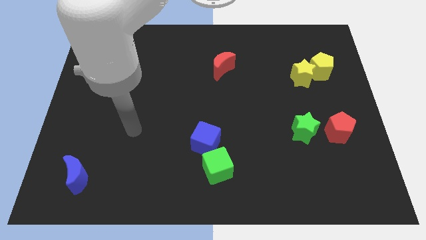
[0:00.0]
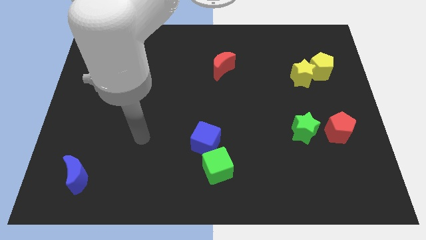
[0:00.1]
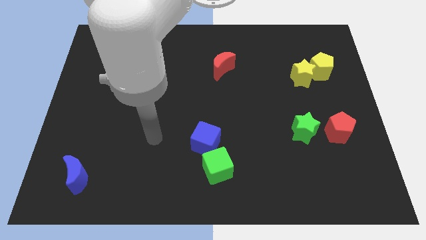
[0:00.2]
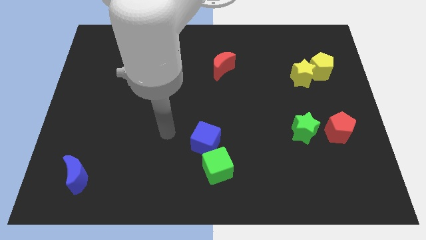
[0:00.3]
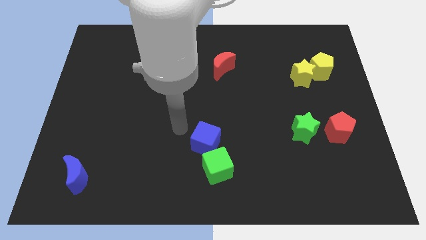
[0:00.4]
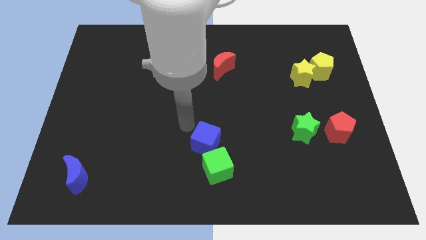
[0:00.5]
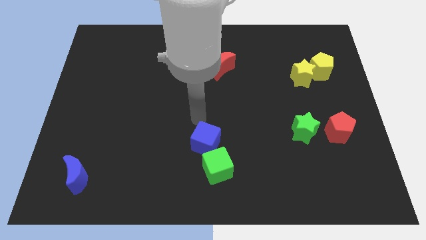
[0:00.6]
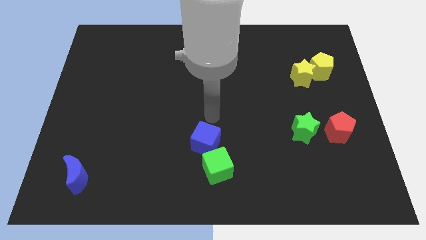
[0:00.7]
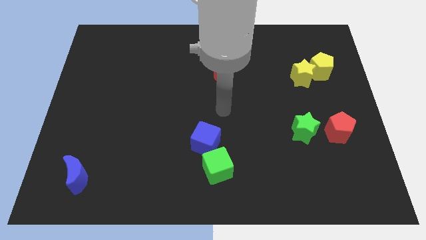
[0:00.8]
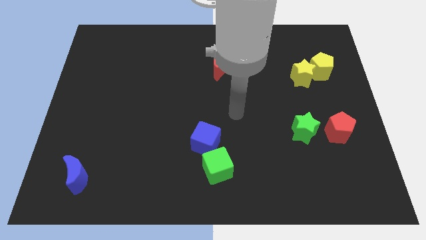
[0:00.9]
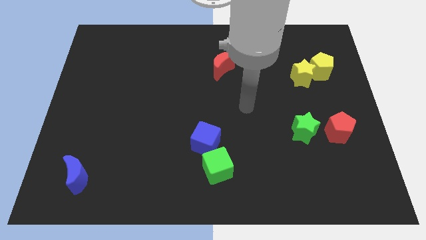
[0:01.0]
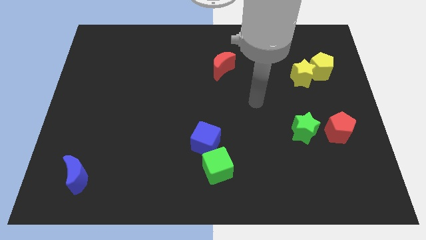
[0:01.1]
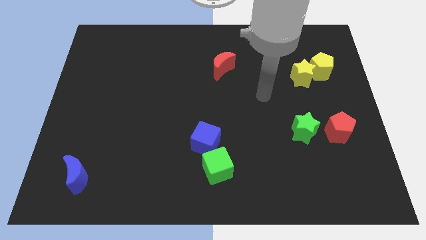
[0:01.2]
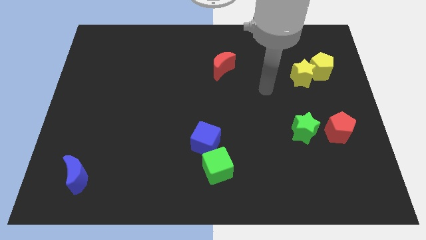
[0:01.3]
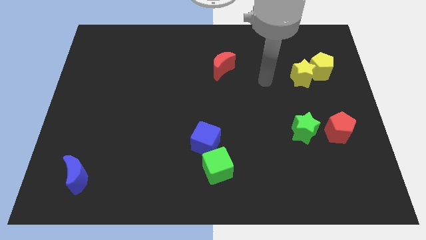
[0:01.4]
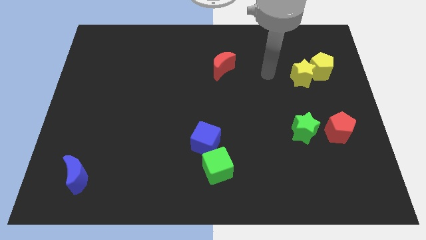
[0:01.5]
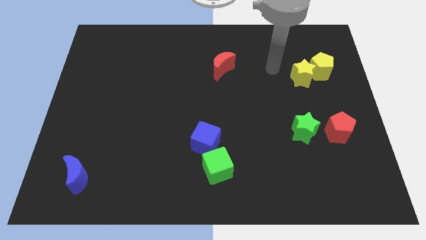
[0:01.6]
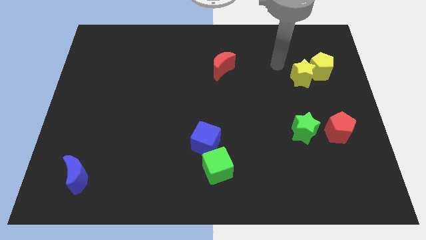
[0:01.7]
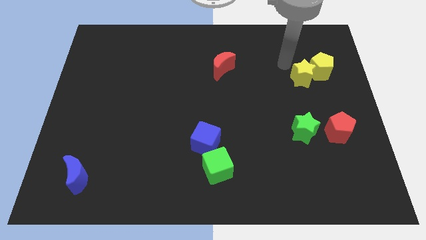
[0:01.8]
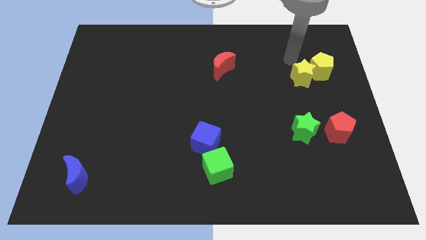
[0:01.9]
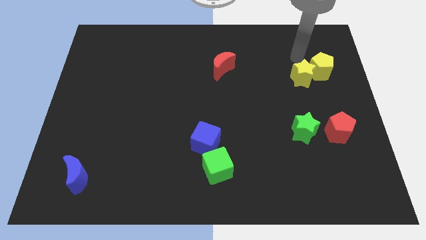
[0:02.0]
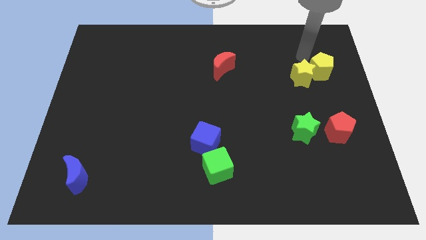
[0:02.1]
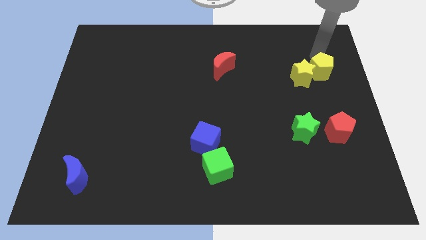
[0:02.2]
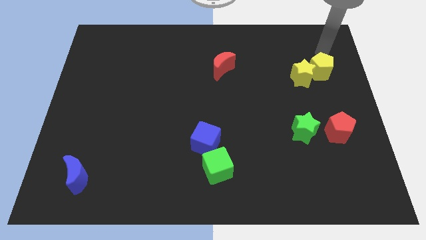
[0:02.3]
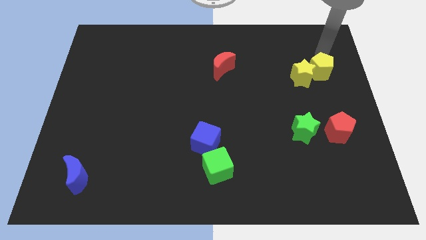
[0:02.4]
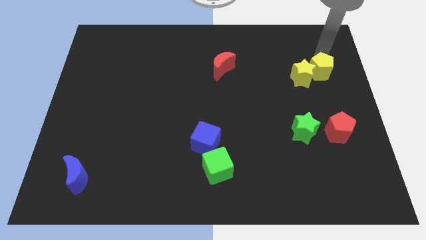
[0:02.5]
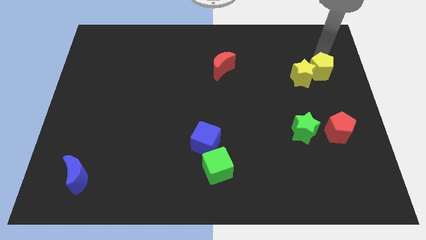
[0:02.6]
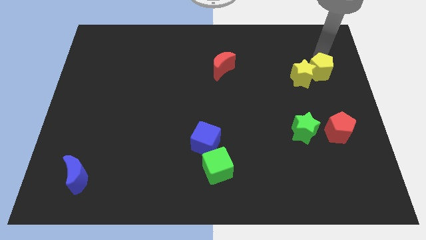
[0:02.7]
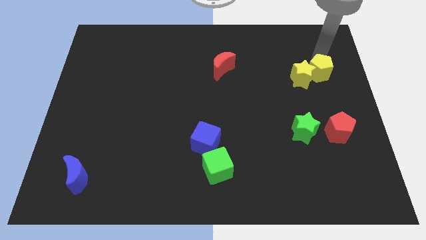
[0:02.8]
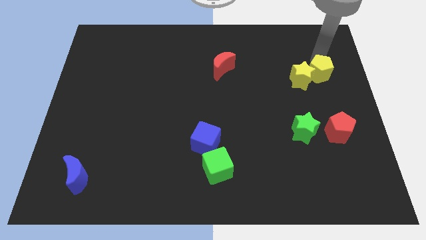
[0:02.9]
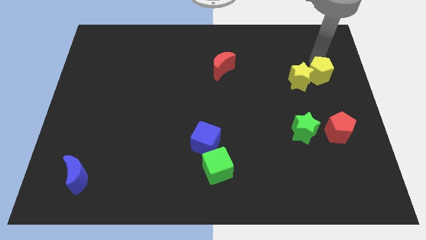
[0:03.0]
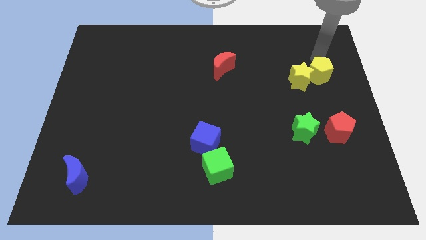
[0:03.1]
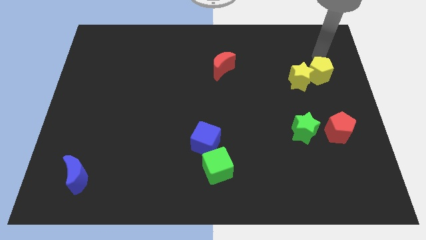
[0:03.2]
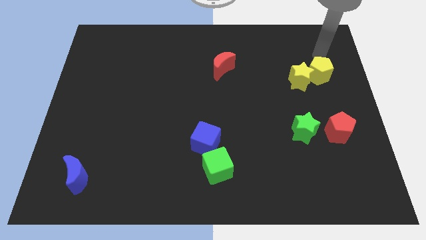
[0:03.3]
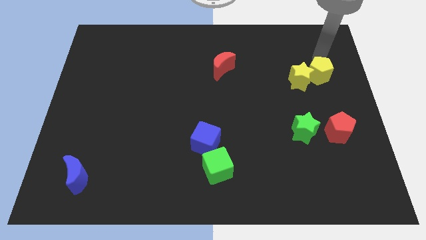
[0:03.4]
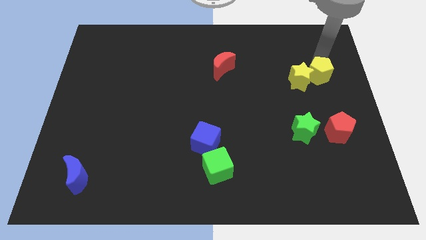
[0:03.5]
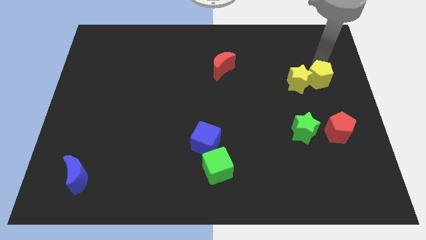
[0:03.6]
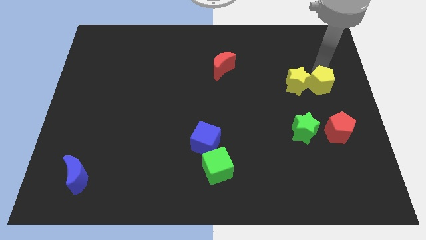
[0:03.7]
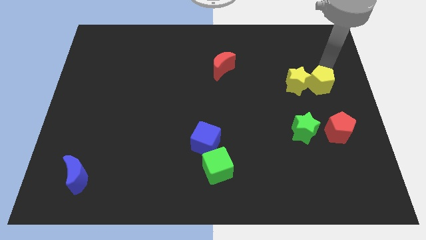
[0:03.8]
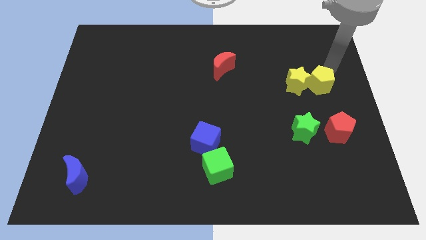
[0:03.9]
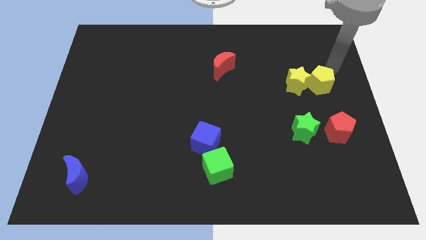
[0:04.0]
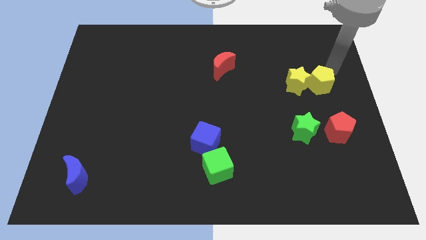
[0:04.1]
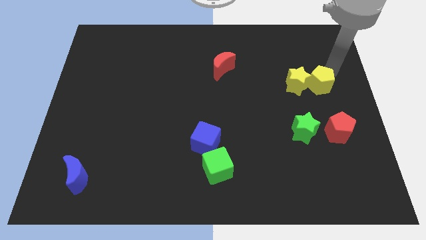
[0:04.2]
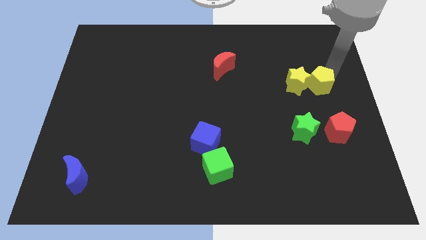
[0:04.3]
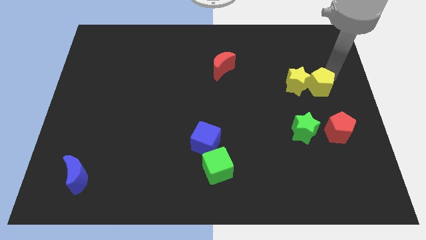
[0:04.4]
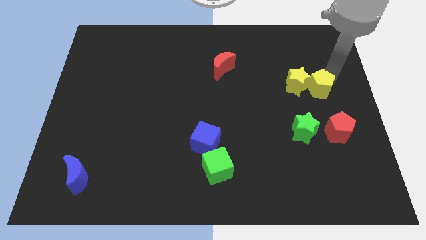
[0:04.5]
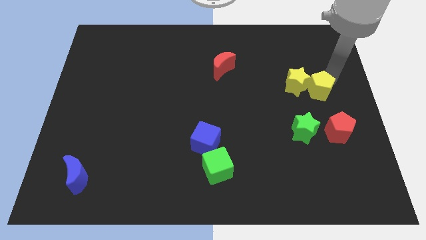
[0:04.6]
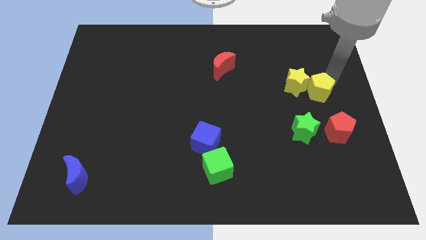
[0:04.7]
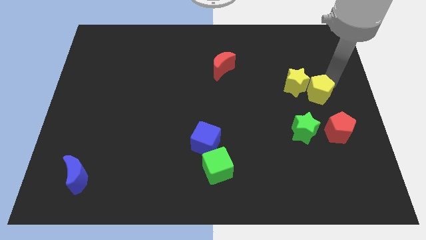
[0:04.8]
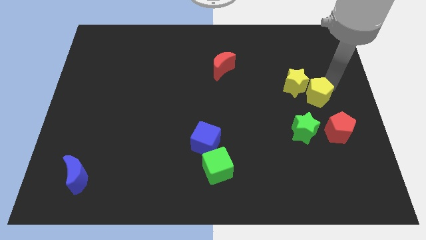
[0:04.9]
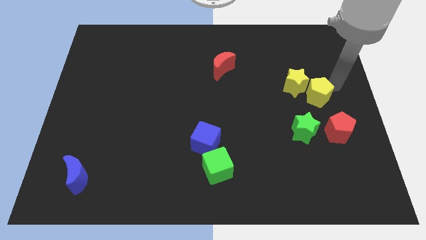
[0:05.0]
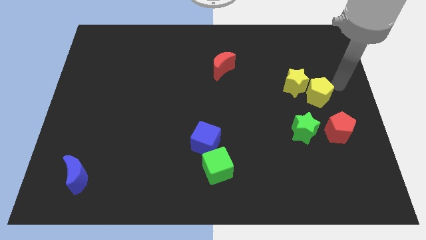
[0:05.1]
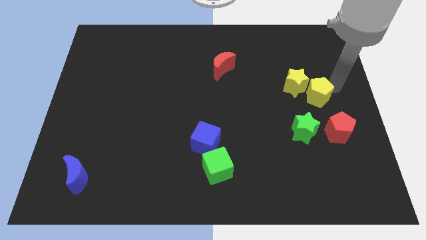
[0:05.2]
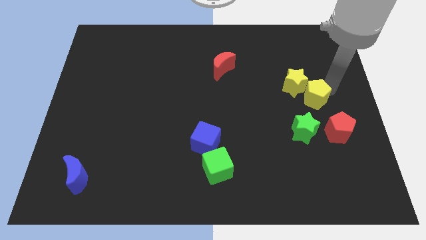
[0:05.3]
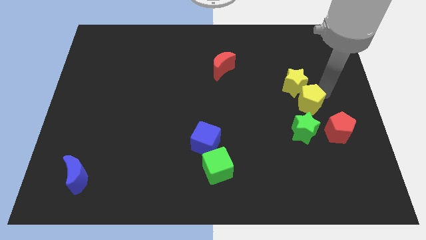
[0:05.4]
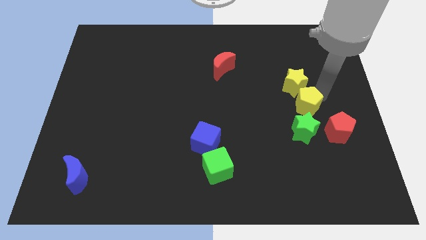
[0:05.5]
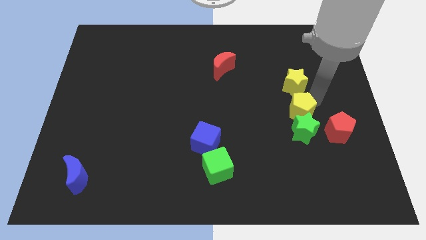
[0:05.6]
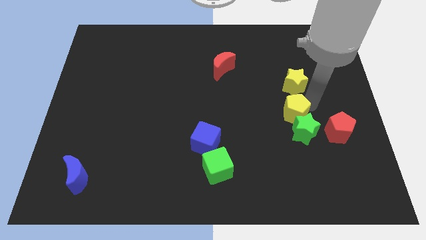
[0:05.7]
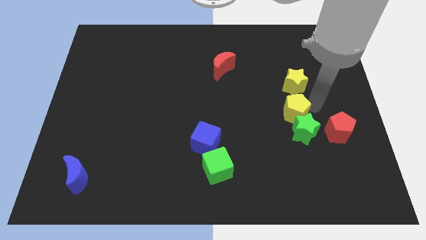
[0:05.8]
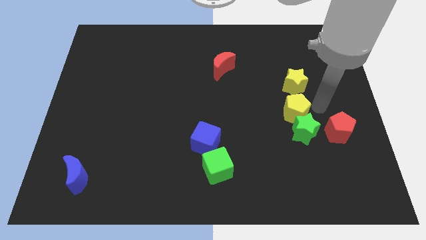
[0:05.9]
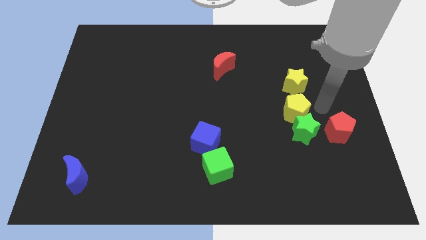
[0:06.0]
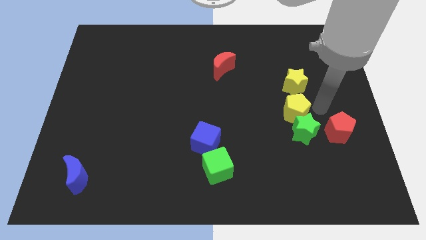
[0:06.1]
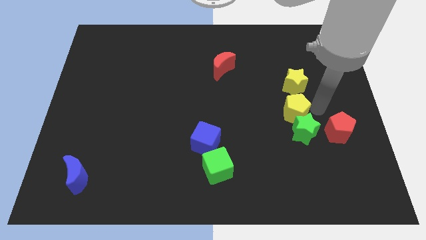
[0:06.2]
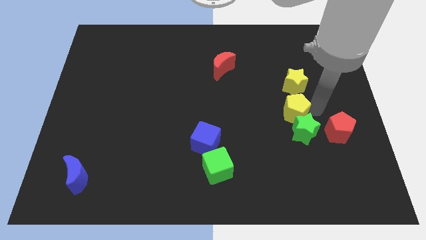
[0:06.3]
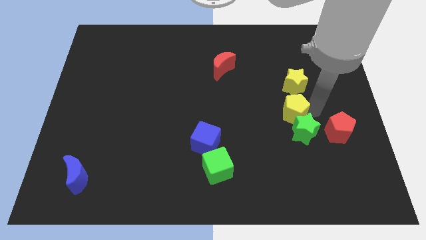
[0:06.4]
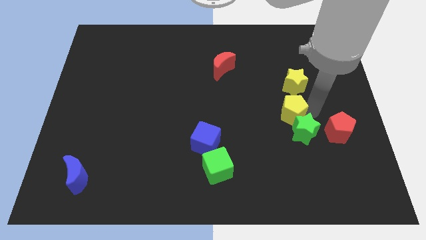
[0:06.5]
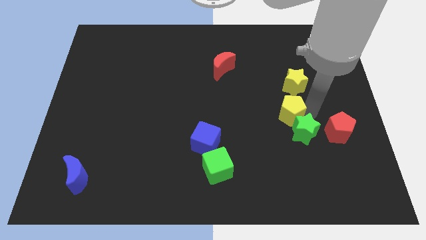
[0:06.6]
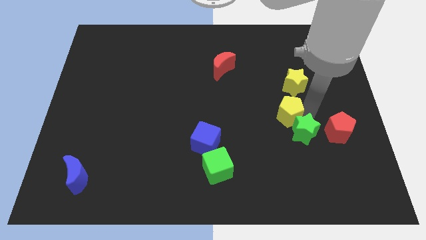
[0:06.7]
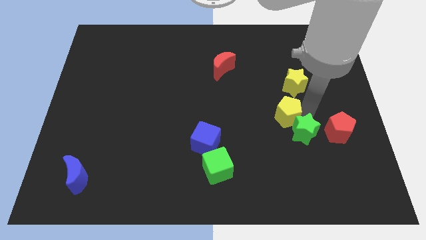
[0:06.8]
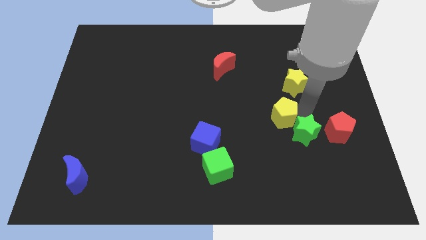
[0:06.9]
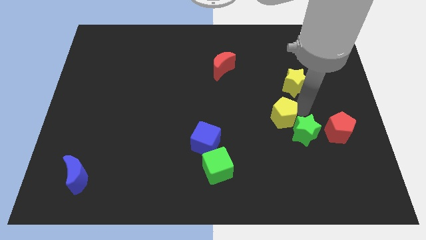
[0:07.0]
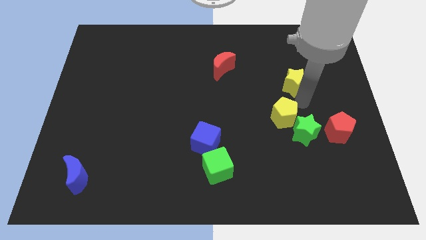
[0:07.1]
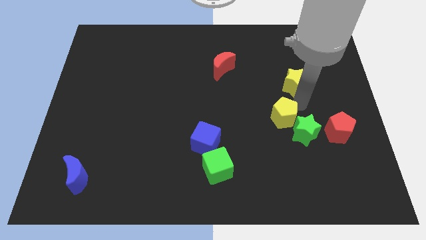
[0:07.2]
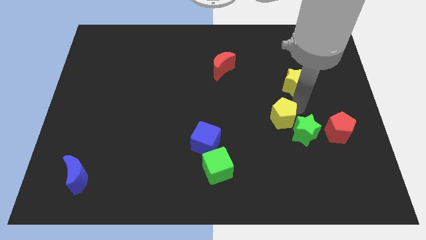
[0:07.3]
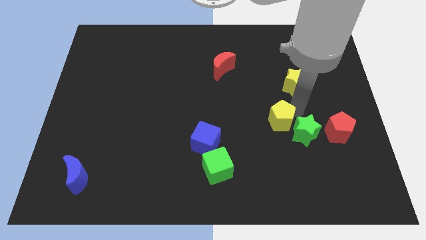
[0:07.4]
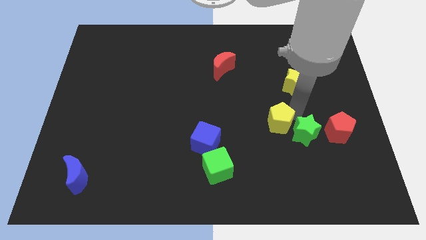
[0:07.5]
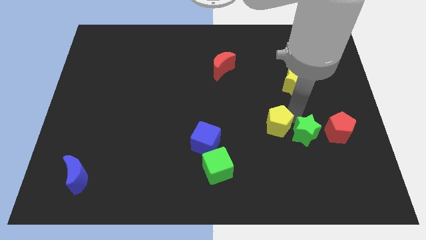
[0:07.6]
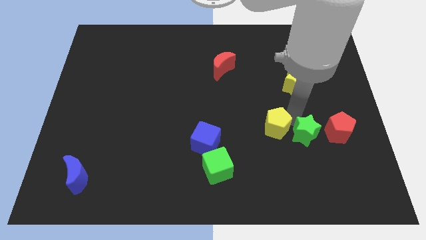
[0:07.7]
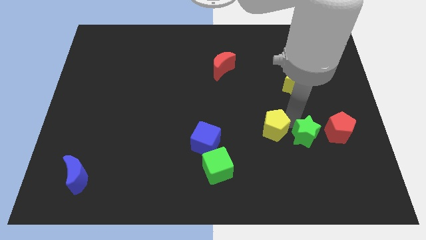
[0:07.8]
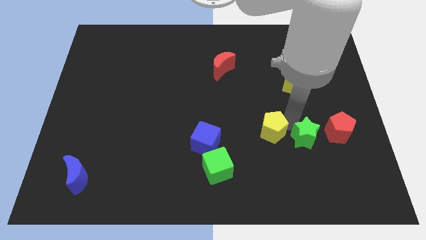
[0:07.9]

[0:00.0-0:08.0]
push the yellow pentagon right of the blue cube
